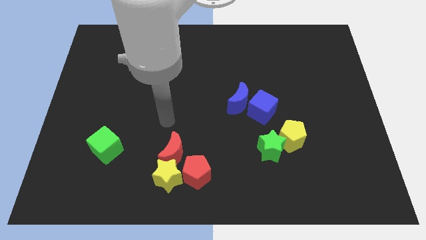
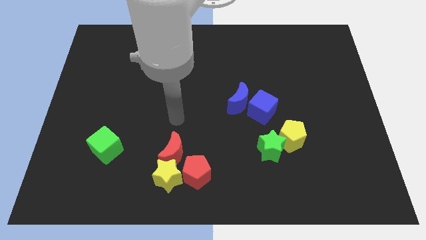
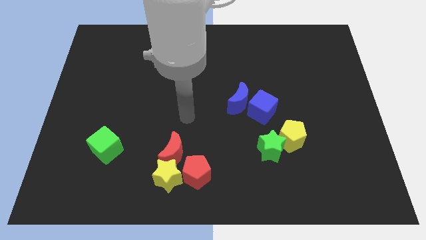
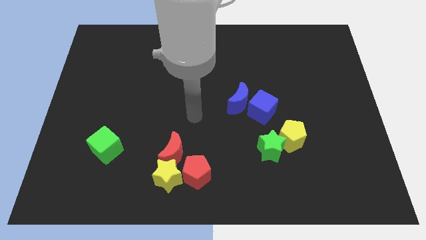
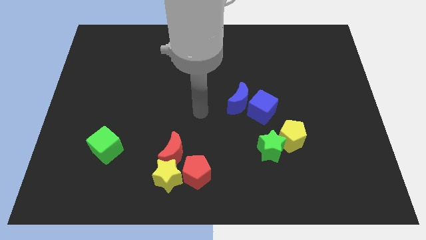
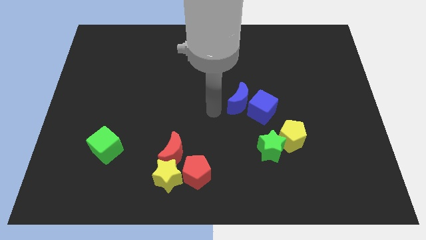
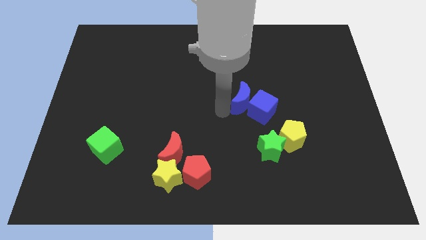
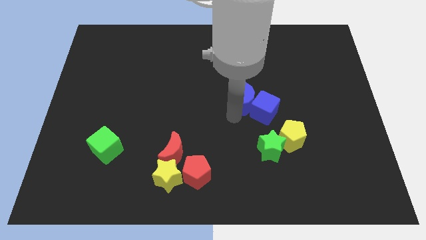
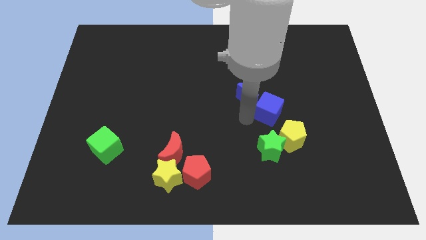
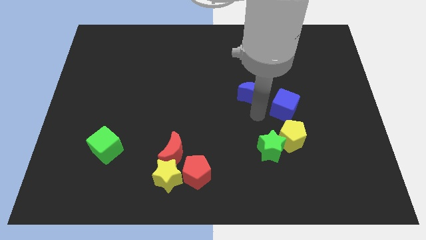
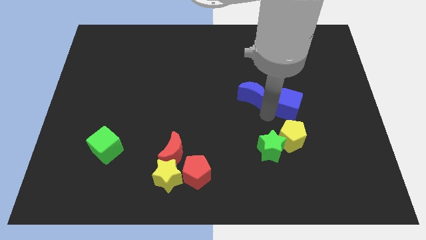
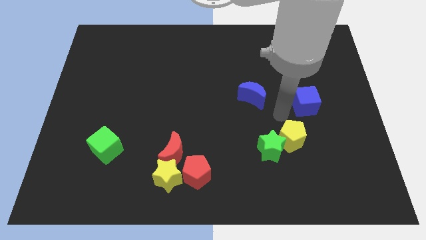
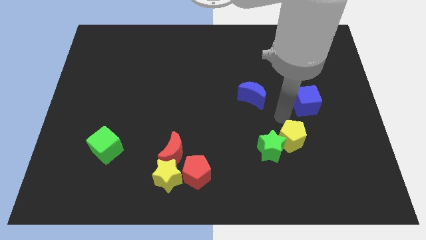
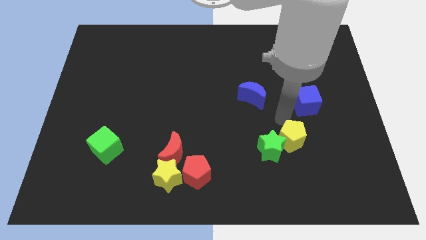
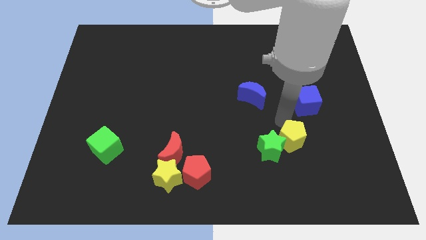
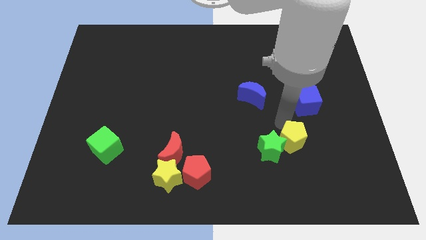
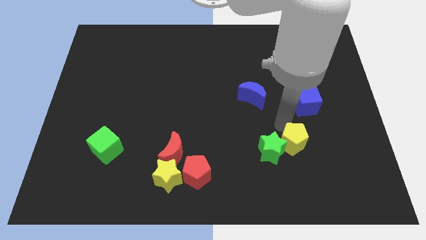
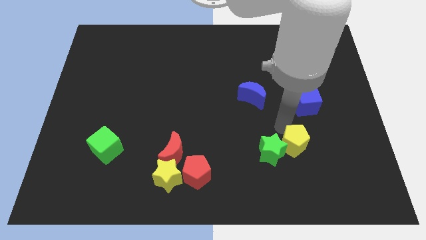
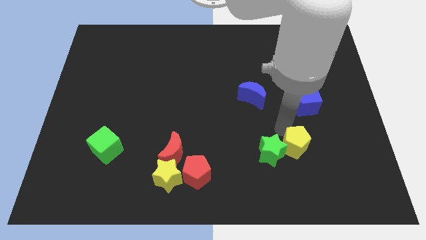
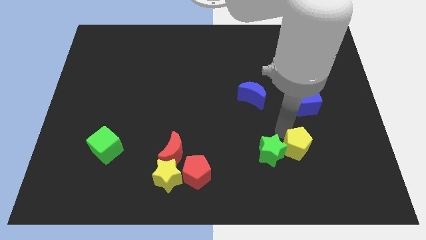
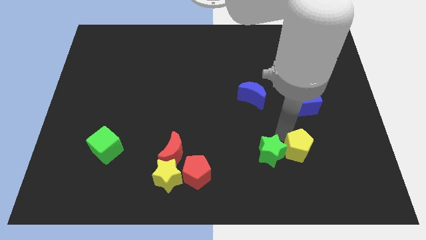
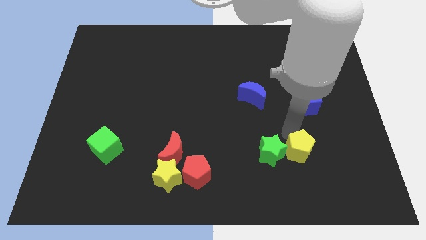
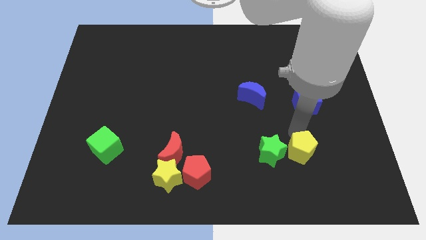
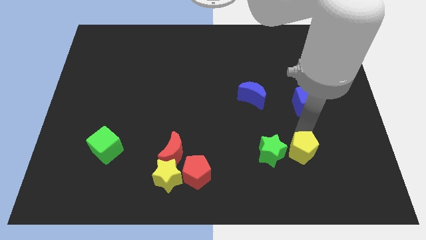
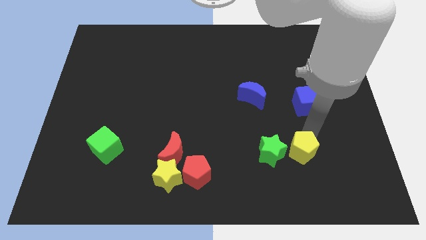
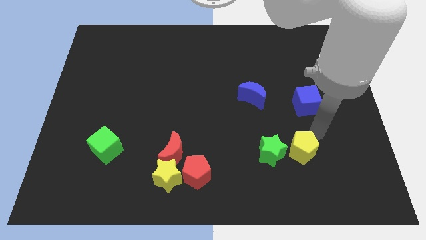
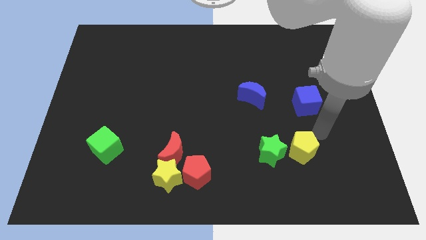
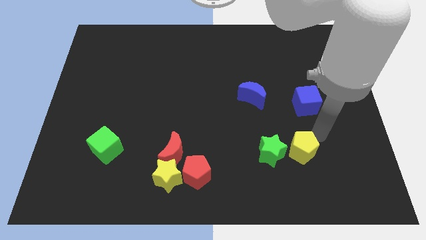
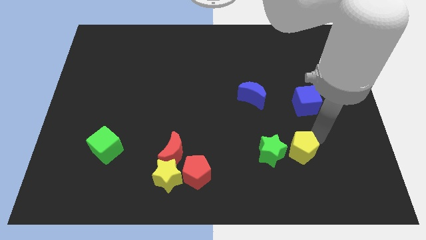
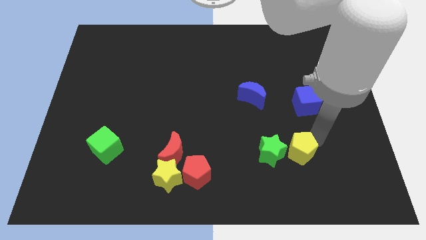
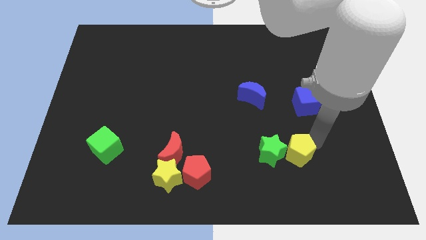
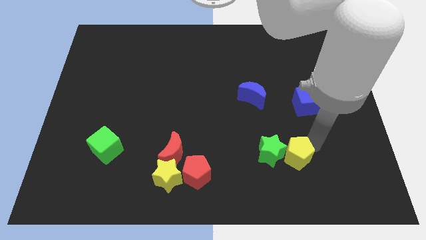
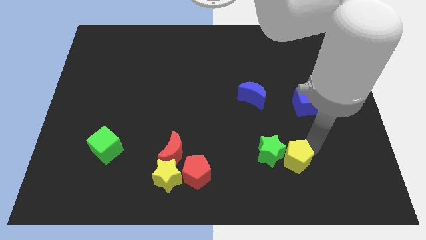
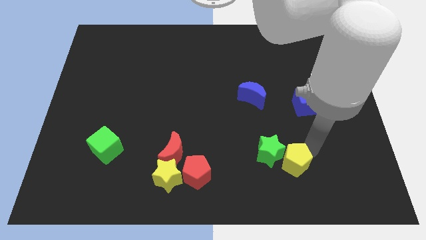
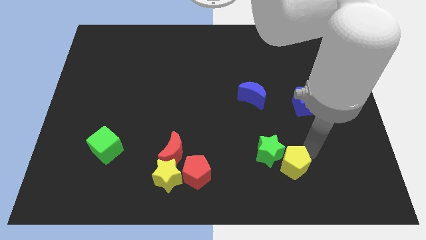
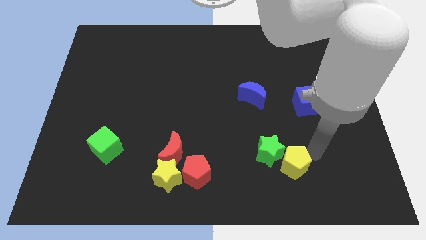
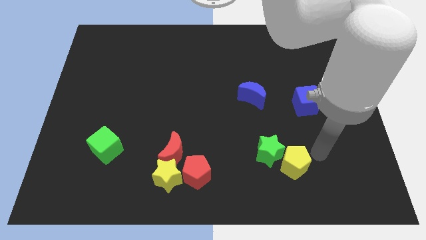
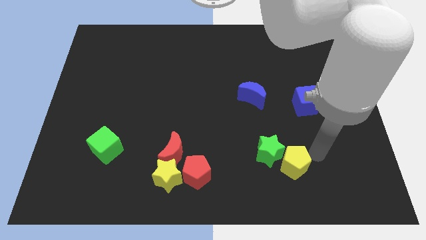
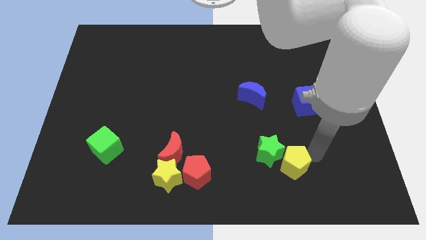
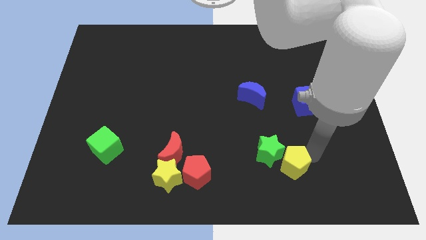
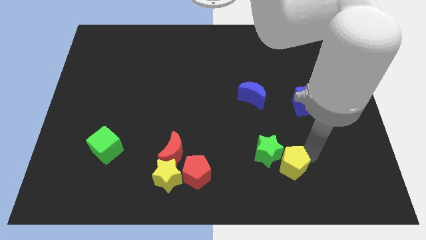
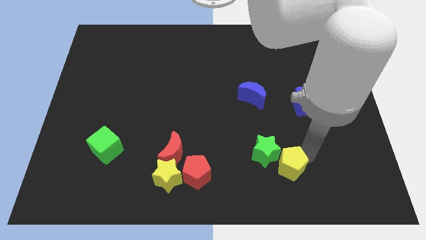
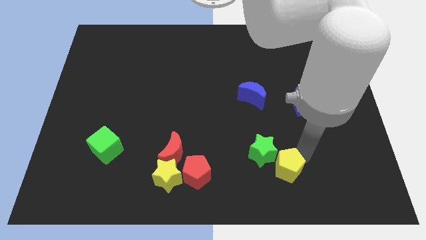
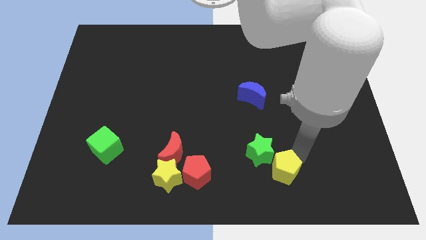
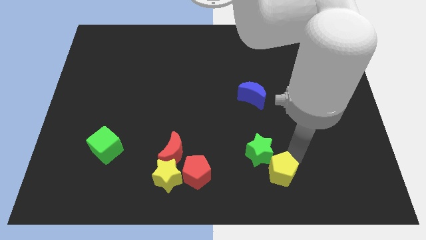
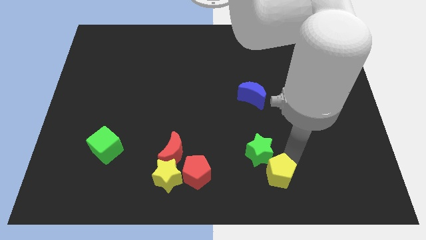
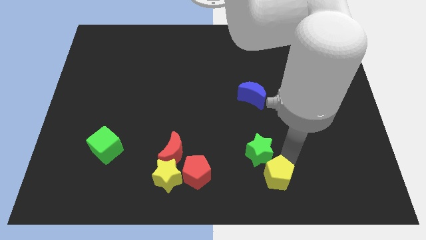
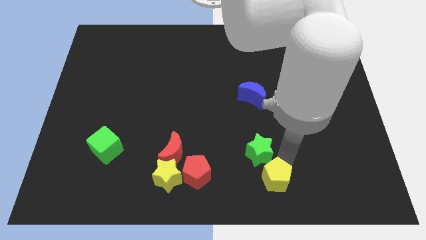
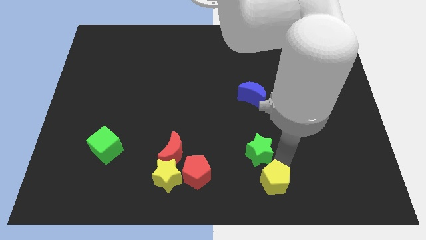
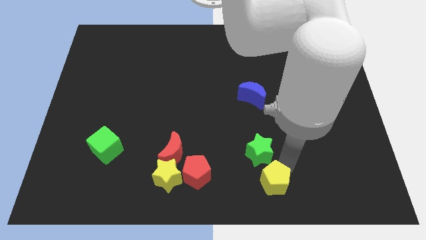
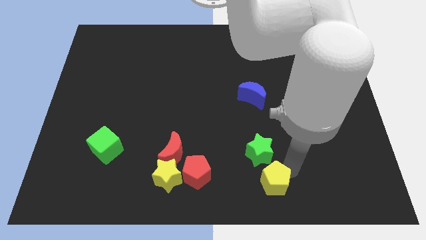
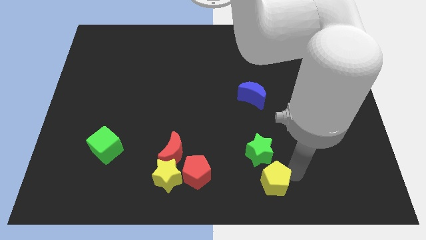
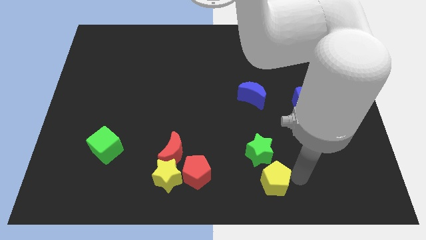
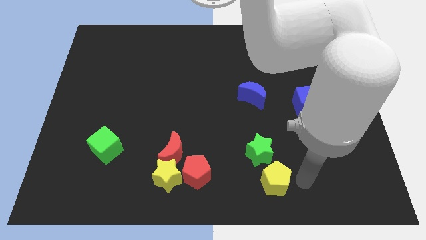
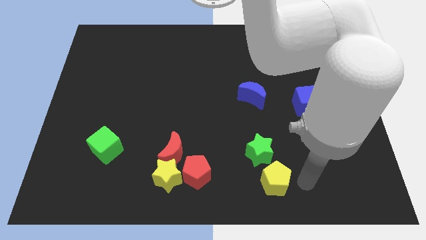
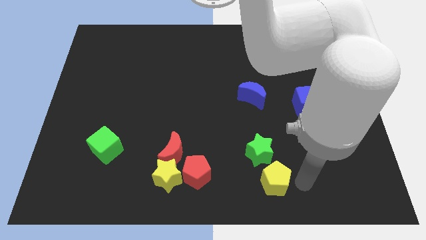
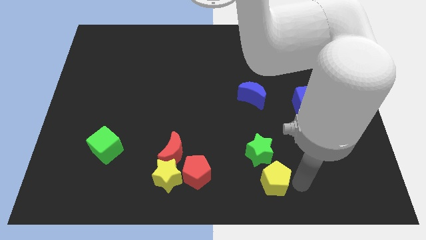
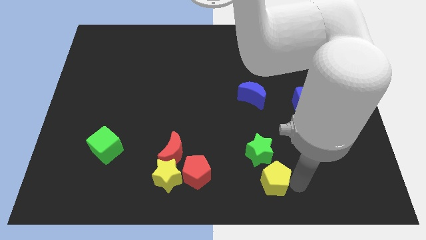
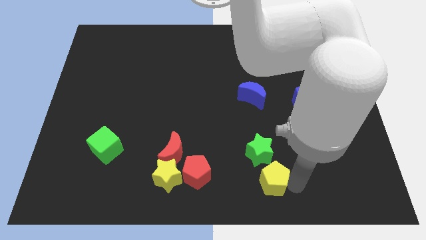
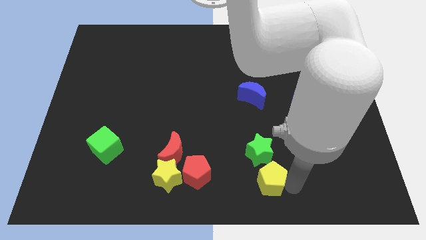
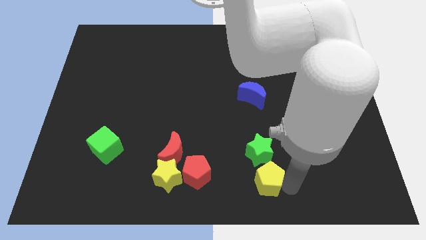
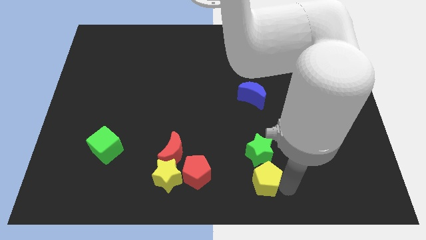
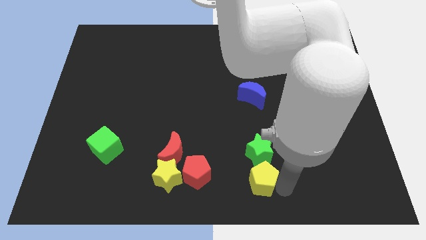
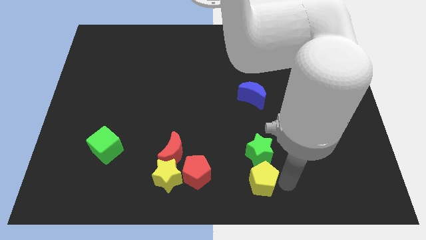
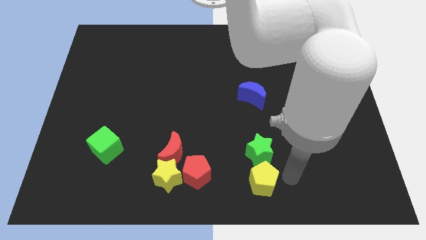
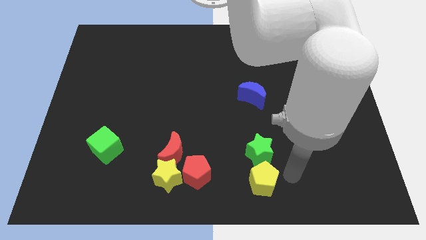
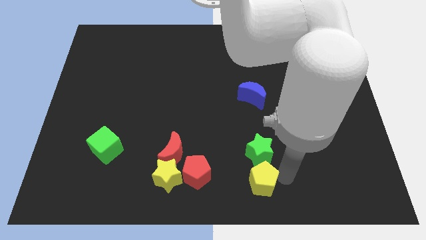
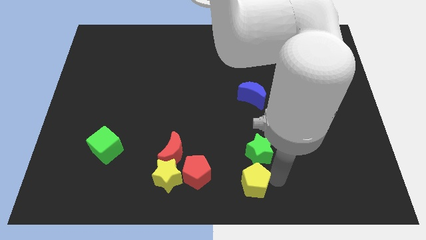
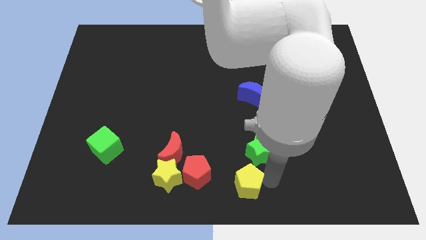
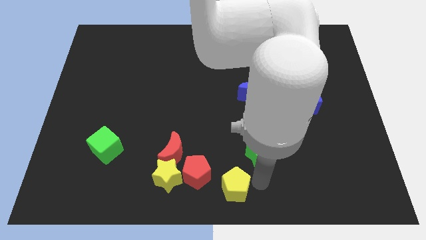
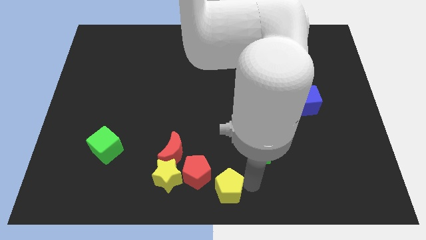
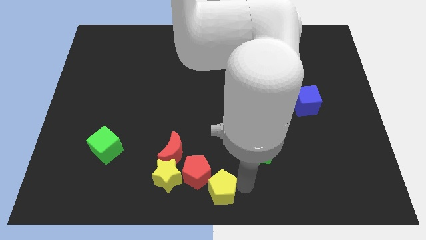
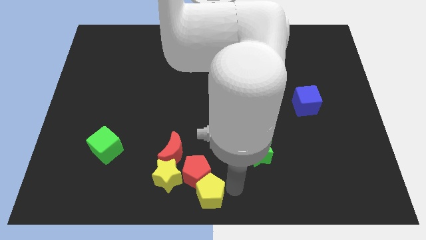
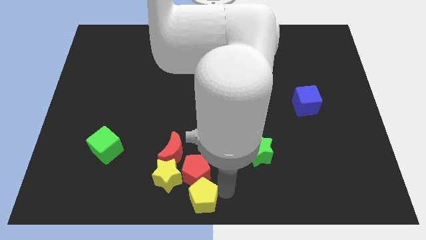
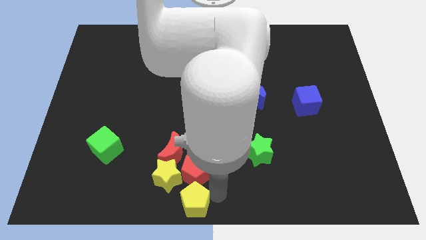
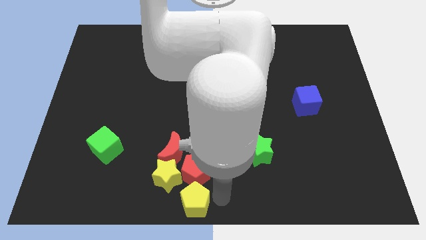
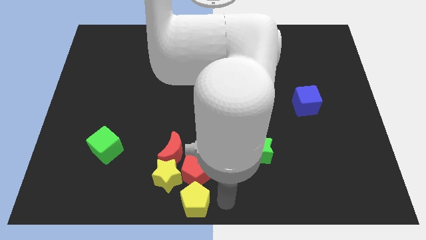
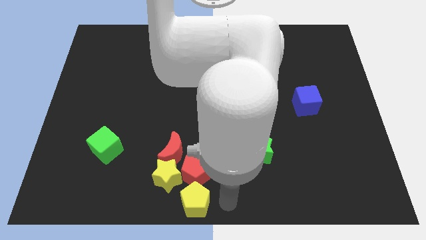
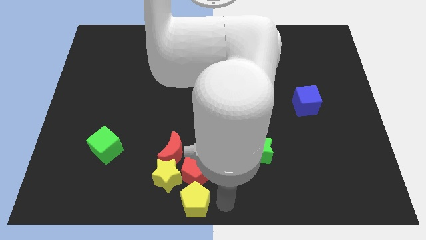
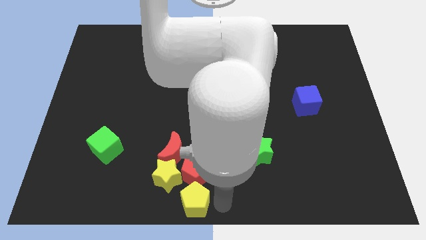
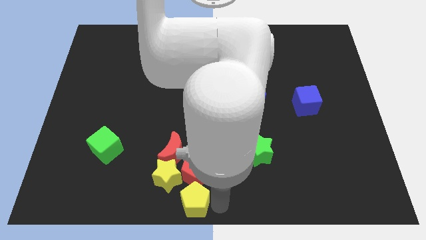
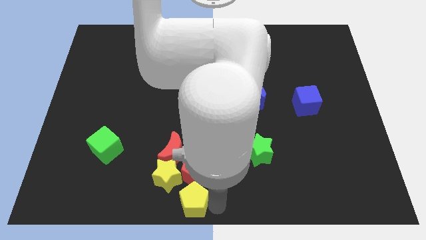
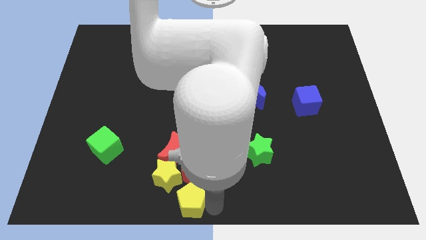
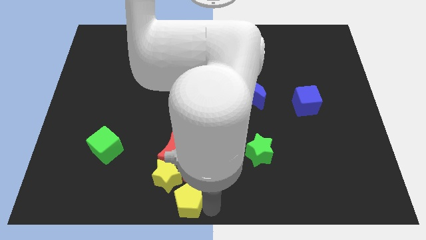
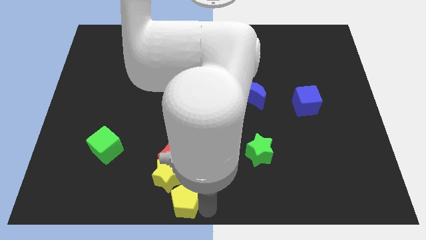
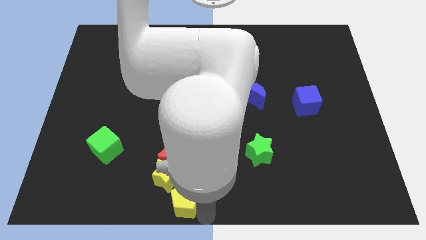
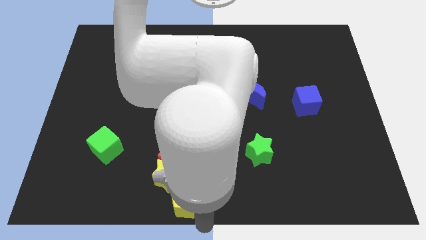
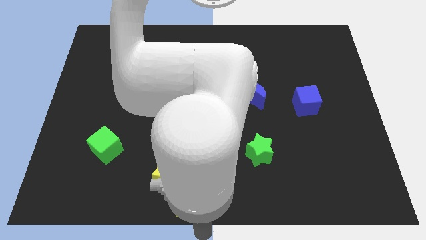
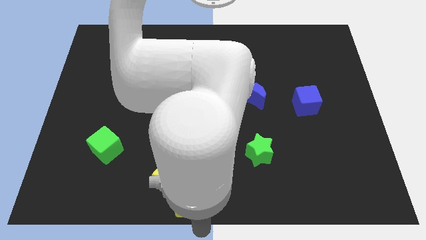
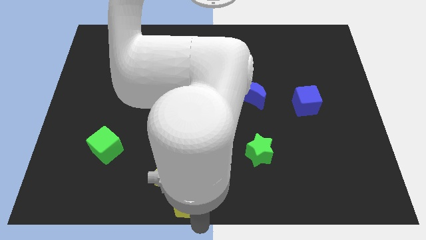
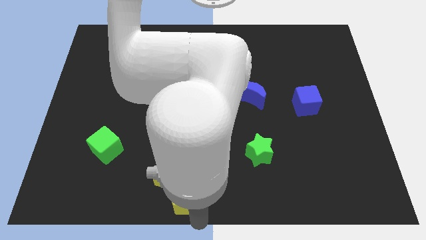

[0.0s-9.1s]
move the yellow pentagon to the yellow star
